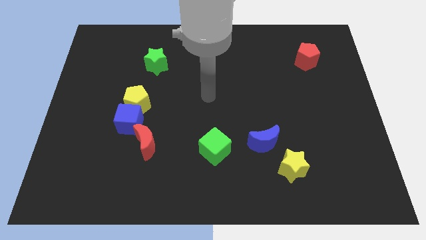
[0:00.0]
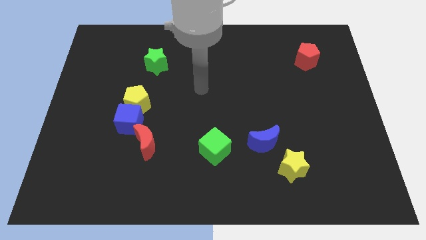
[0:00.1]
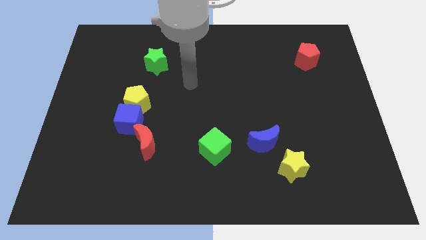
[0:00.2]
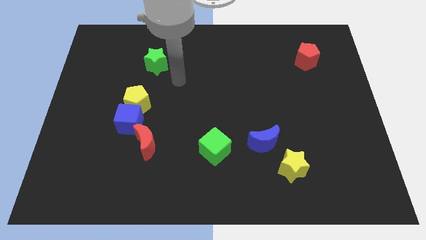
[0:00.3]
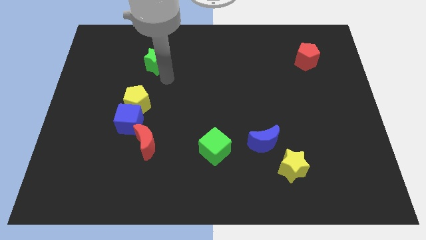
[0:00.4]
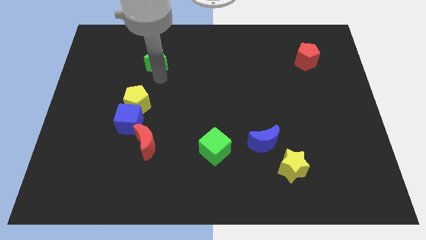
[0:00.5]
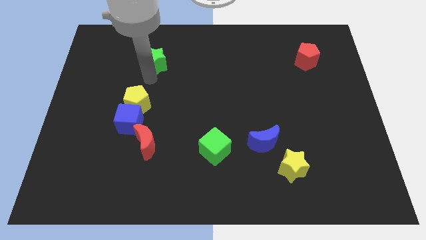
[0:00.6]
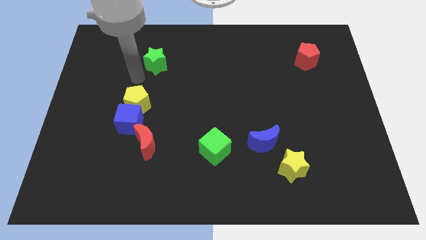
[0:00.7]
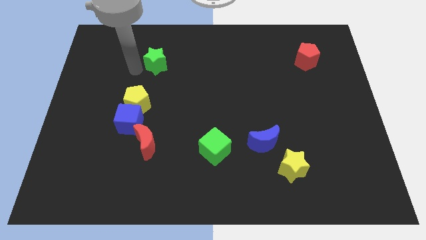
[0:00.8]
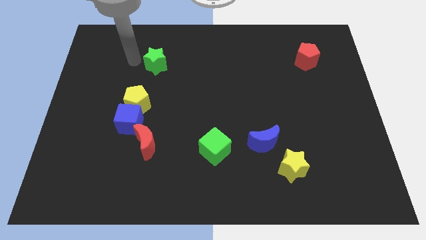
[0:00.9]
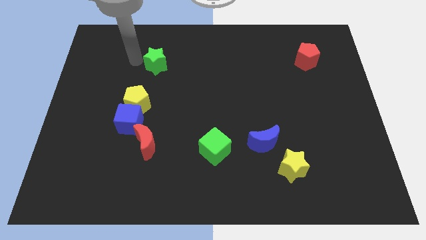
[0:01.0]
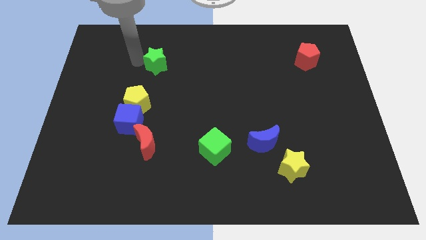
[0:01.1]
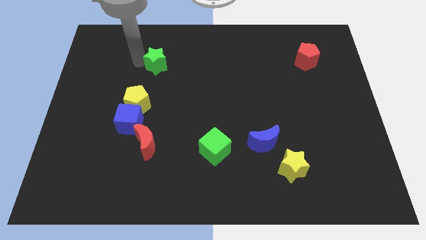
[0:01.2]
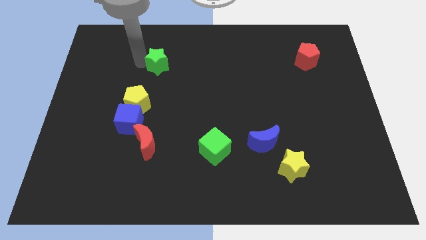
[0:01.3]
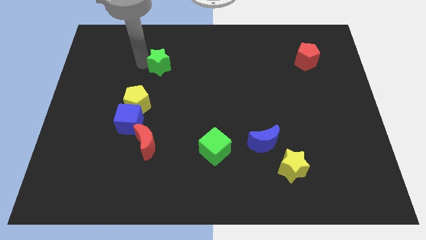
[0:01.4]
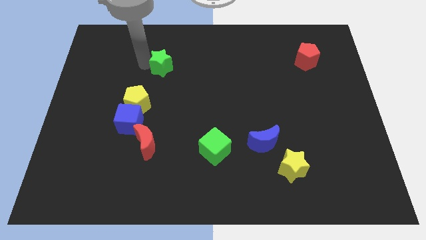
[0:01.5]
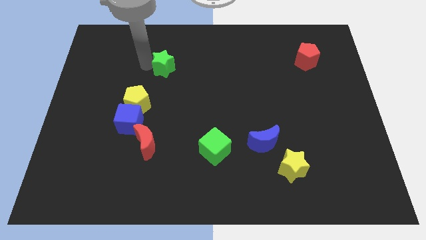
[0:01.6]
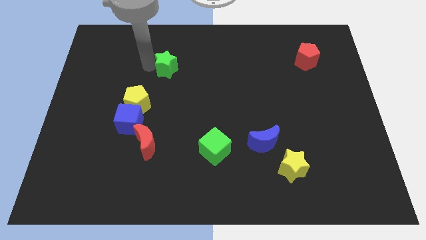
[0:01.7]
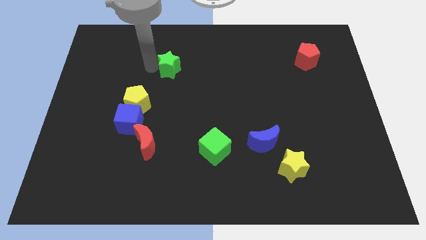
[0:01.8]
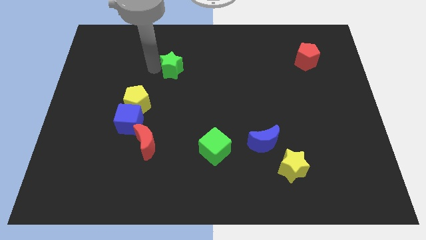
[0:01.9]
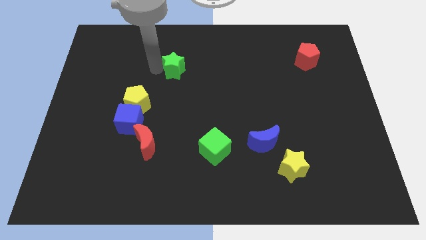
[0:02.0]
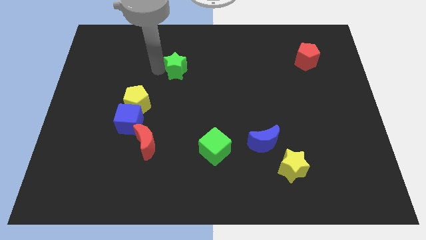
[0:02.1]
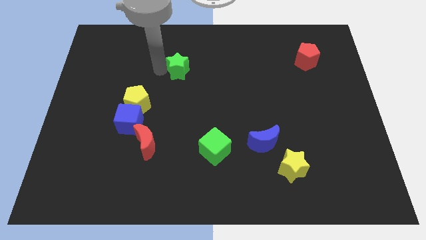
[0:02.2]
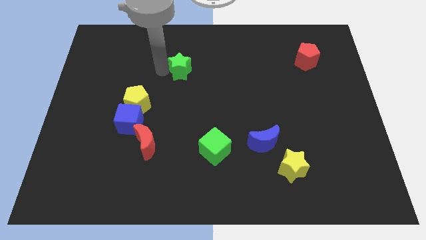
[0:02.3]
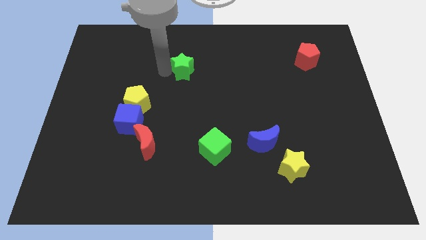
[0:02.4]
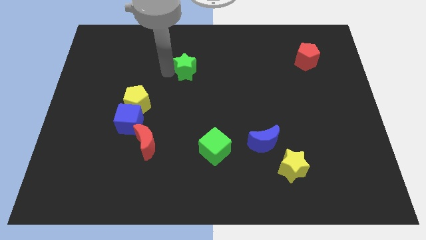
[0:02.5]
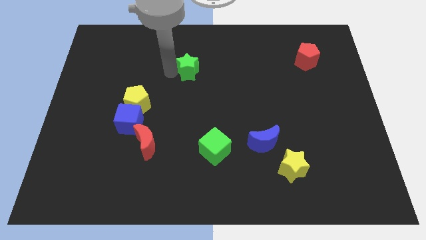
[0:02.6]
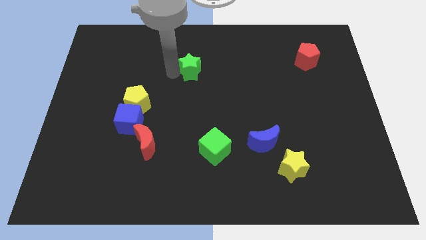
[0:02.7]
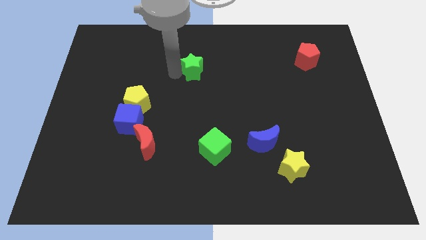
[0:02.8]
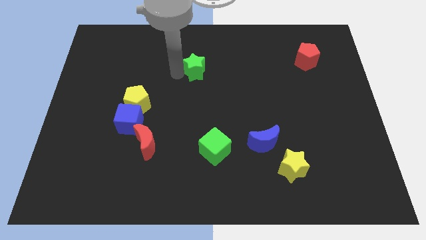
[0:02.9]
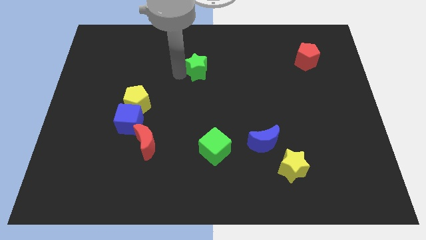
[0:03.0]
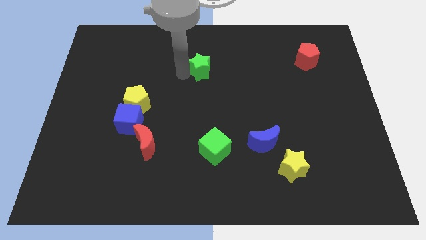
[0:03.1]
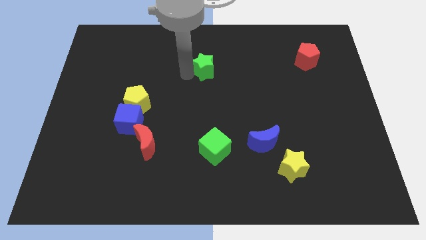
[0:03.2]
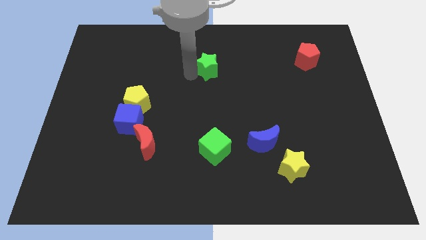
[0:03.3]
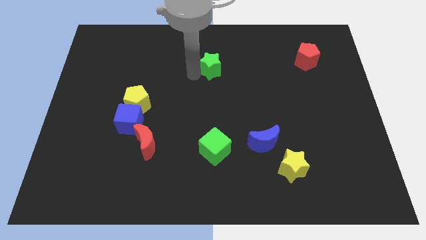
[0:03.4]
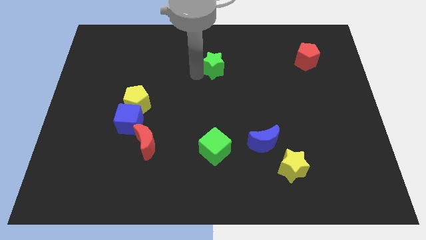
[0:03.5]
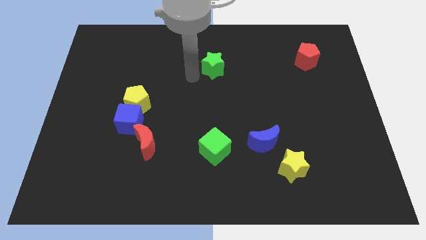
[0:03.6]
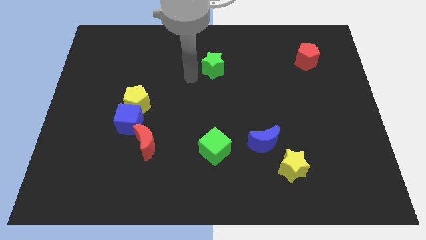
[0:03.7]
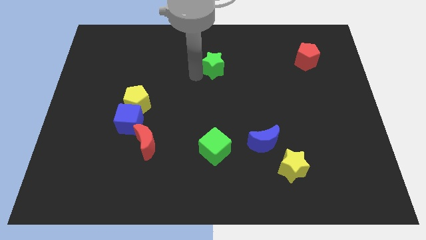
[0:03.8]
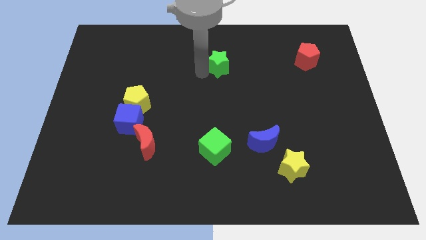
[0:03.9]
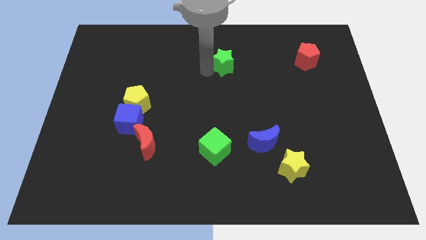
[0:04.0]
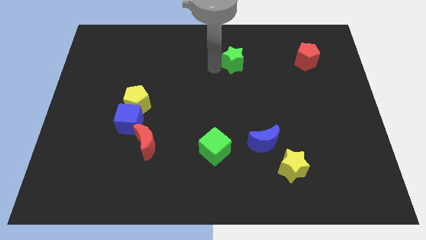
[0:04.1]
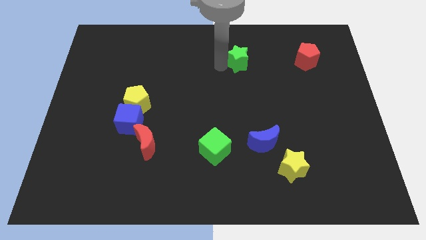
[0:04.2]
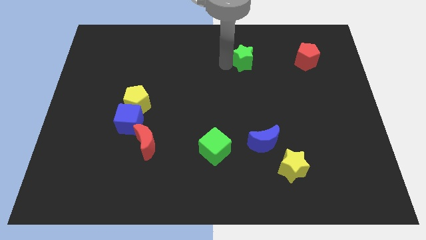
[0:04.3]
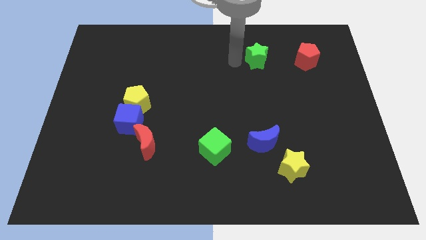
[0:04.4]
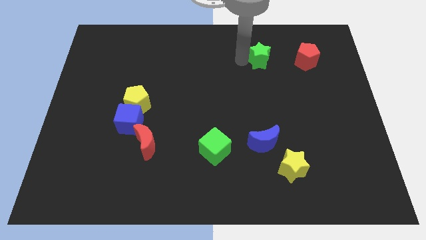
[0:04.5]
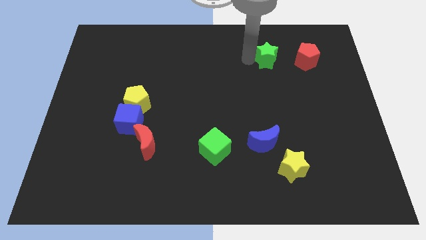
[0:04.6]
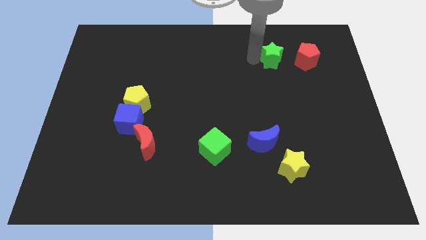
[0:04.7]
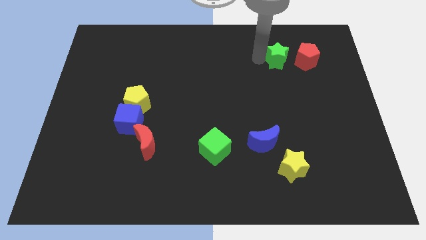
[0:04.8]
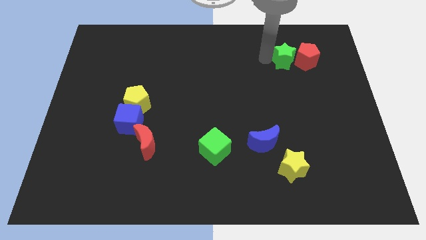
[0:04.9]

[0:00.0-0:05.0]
put the green star to the red pentagon

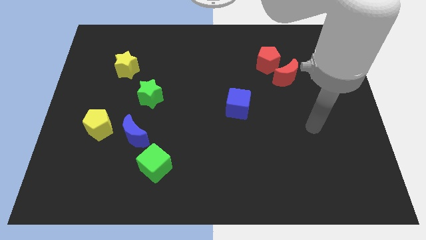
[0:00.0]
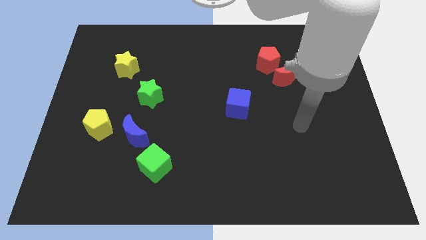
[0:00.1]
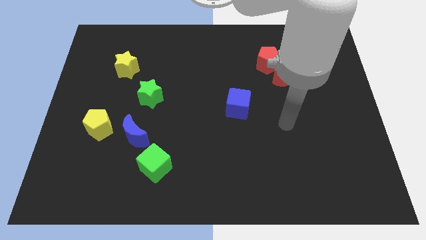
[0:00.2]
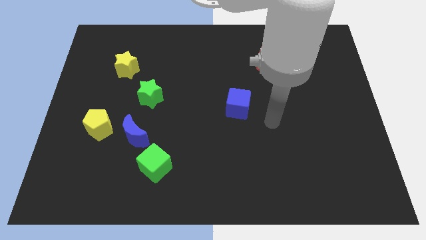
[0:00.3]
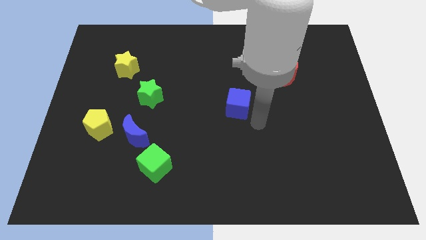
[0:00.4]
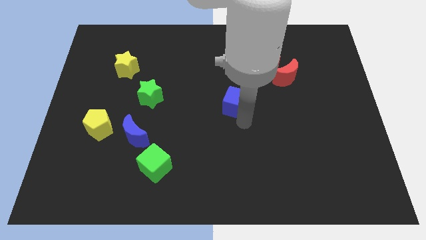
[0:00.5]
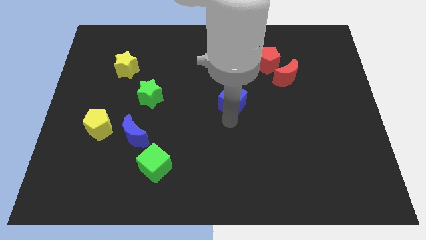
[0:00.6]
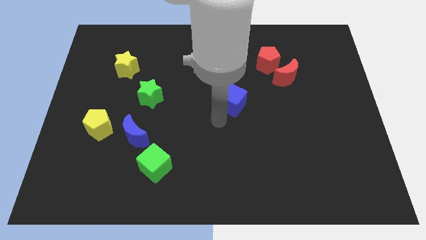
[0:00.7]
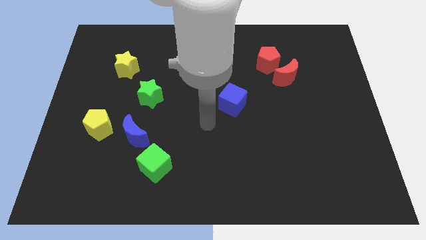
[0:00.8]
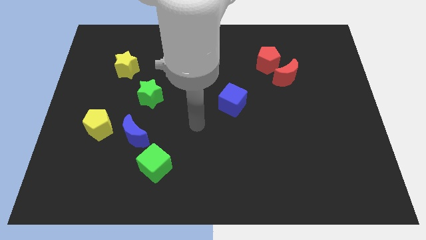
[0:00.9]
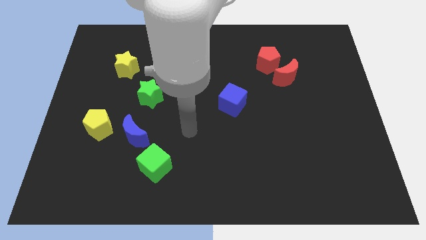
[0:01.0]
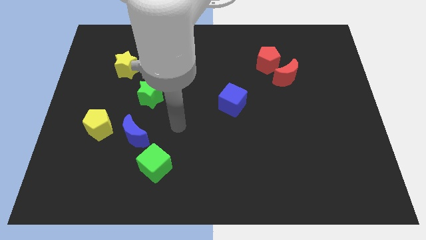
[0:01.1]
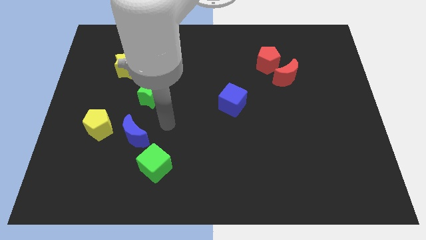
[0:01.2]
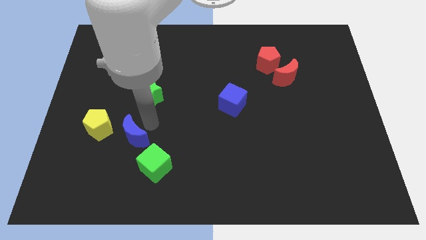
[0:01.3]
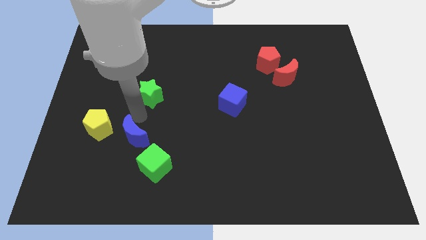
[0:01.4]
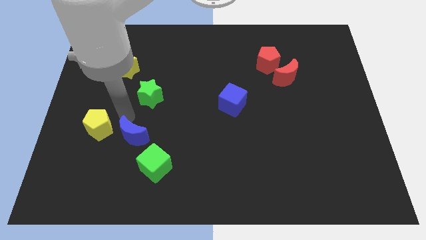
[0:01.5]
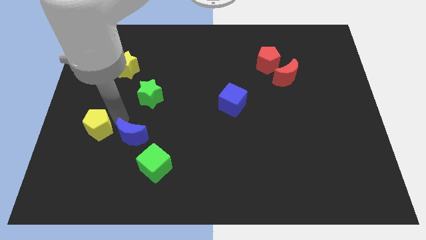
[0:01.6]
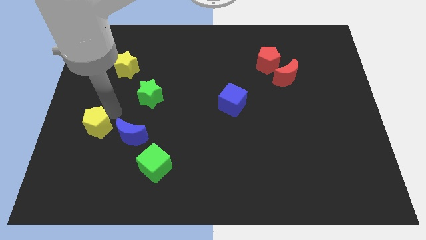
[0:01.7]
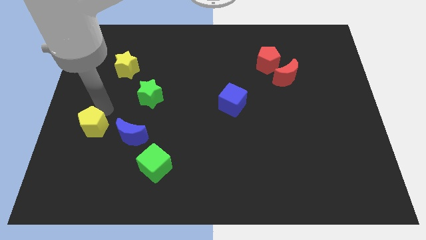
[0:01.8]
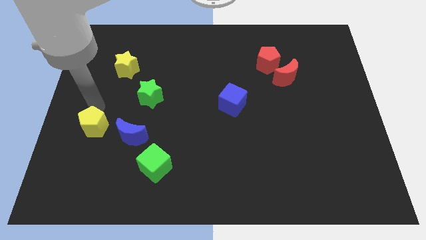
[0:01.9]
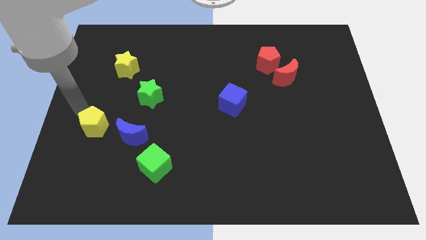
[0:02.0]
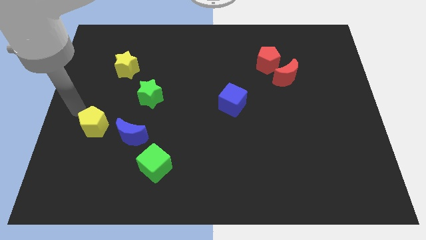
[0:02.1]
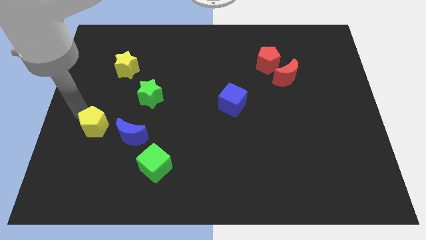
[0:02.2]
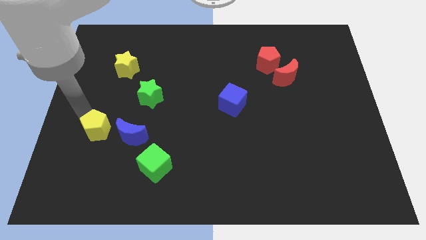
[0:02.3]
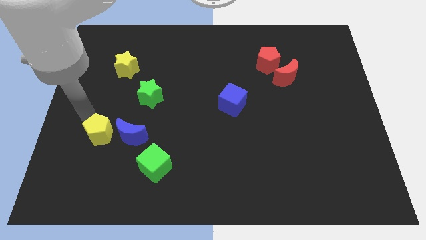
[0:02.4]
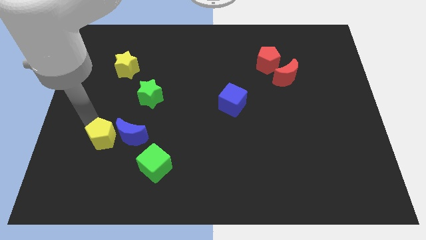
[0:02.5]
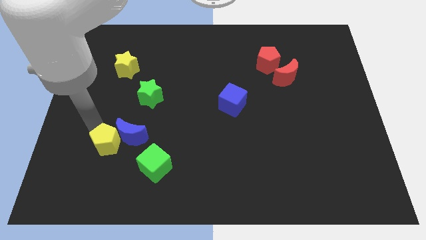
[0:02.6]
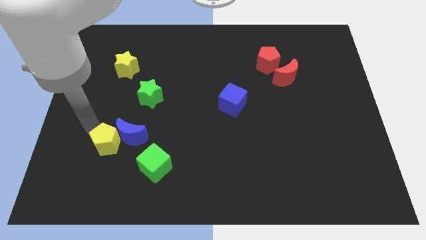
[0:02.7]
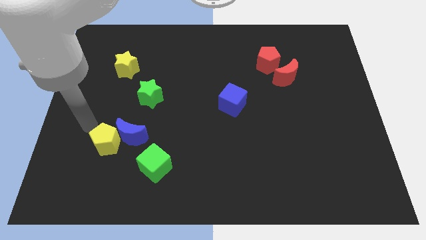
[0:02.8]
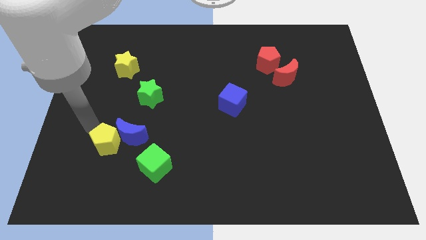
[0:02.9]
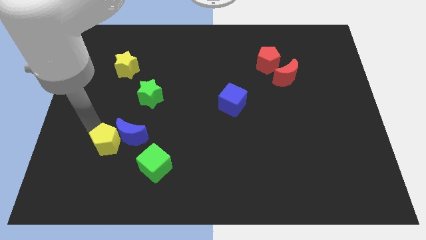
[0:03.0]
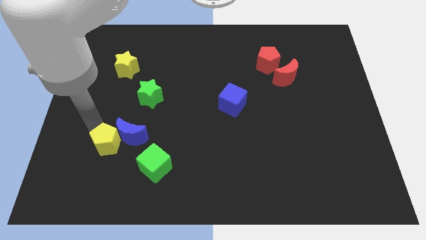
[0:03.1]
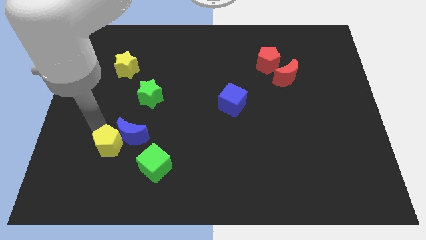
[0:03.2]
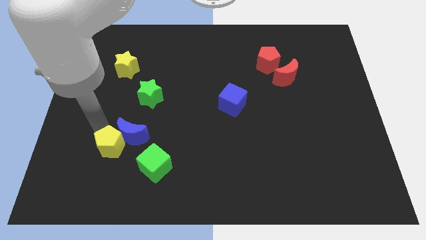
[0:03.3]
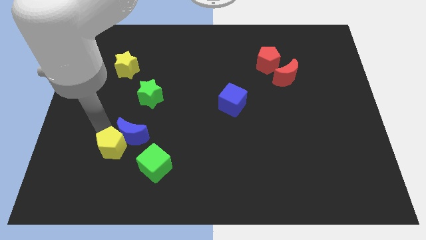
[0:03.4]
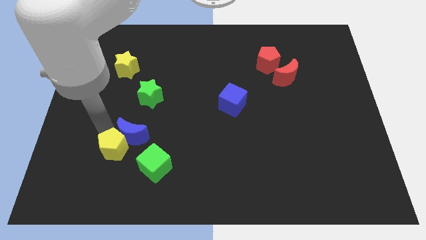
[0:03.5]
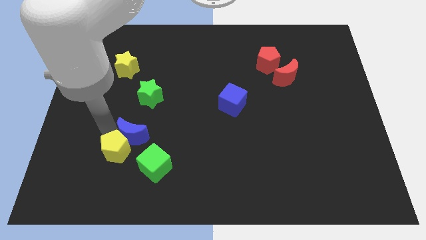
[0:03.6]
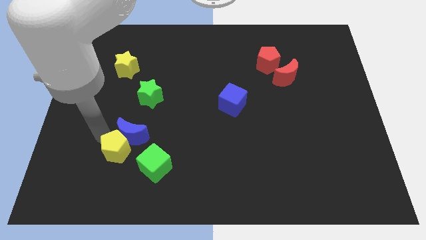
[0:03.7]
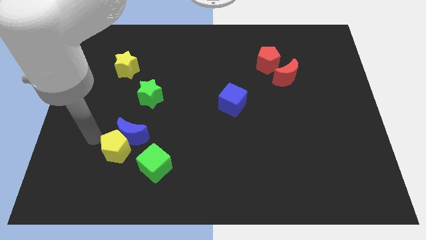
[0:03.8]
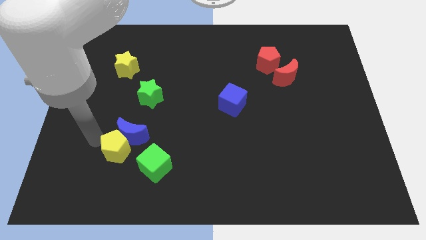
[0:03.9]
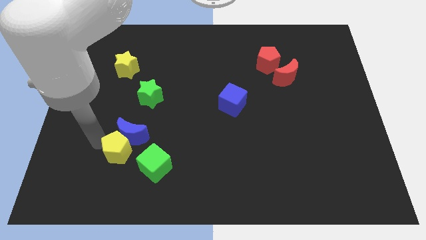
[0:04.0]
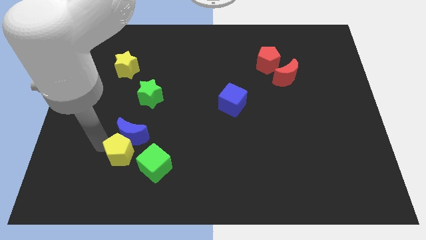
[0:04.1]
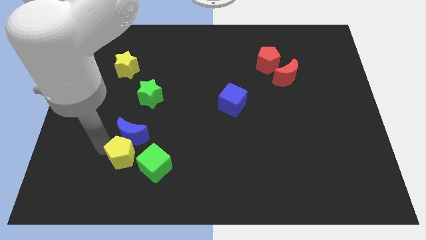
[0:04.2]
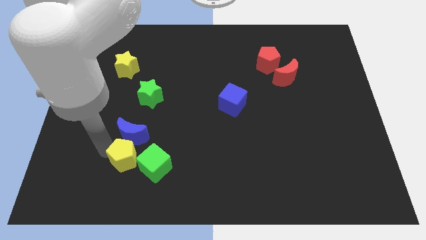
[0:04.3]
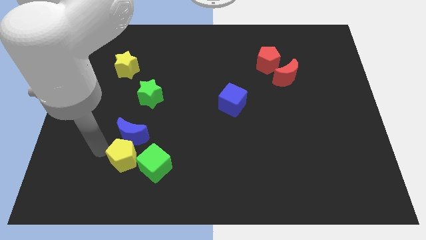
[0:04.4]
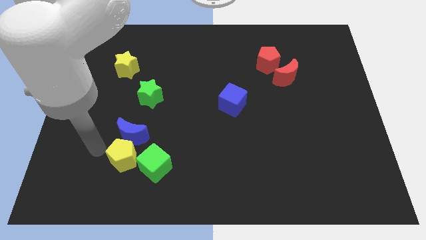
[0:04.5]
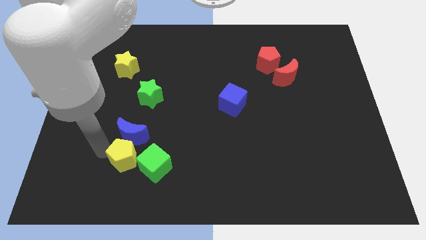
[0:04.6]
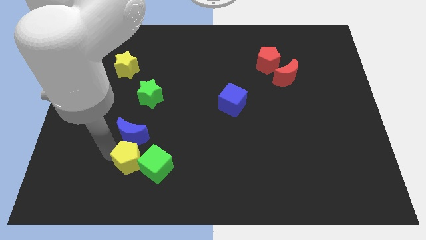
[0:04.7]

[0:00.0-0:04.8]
slide the yellow pentagon close to the green cube
